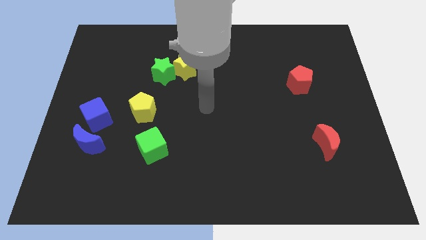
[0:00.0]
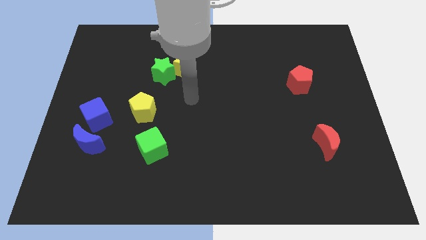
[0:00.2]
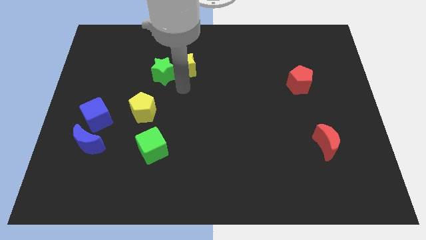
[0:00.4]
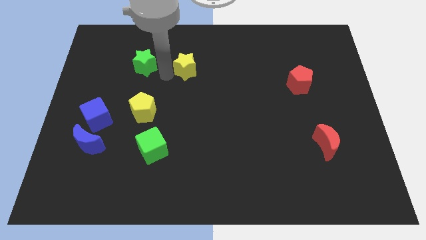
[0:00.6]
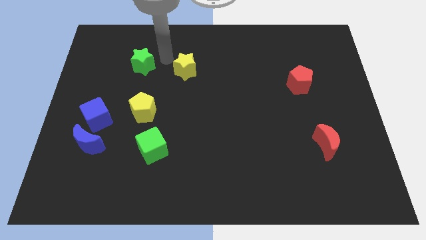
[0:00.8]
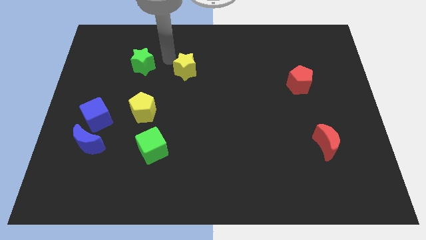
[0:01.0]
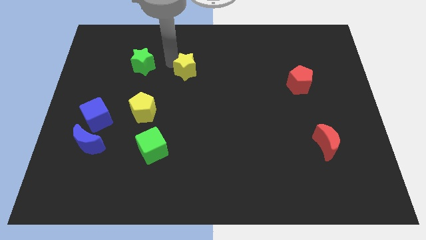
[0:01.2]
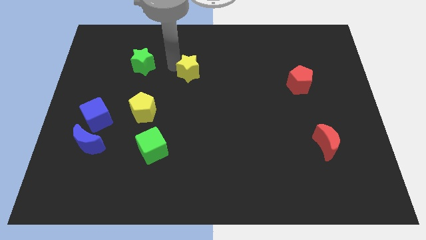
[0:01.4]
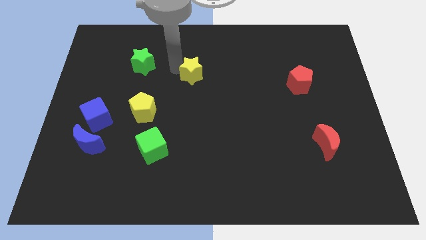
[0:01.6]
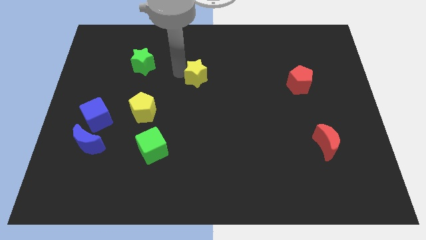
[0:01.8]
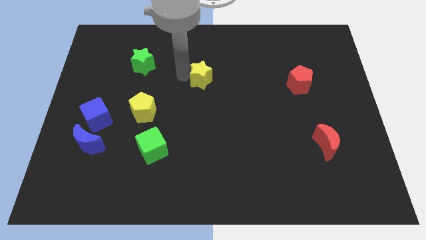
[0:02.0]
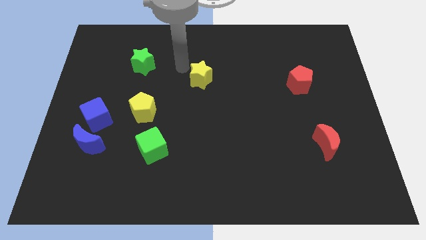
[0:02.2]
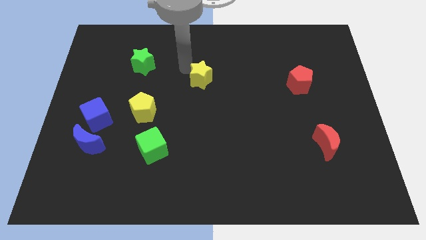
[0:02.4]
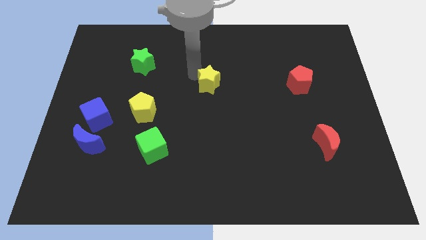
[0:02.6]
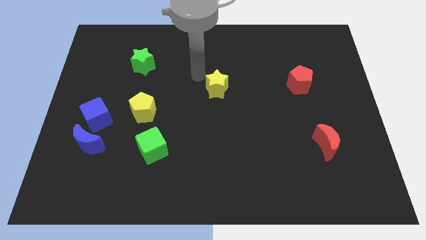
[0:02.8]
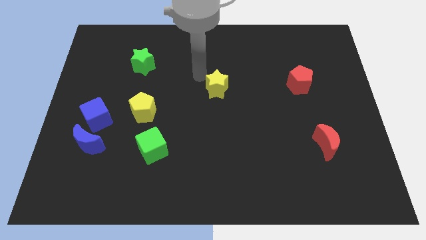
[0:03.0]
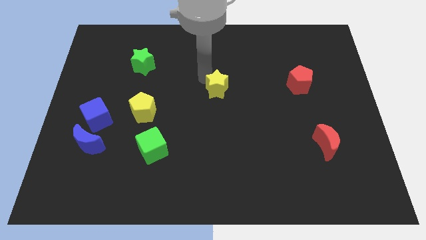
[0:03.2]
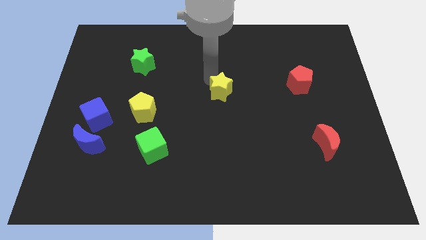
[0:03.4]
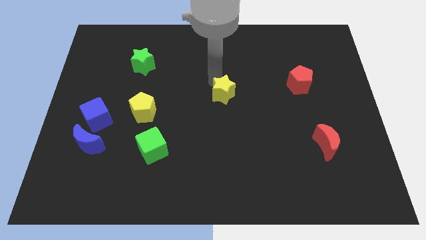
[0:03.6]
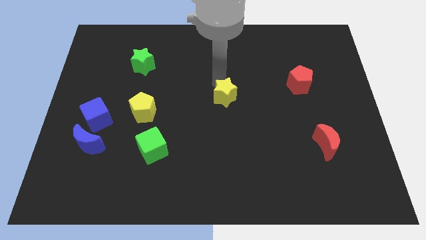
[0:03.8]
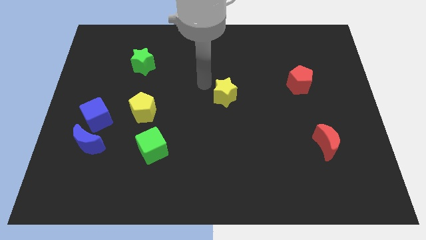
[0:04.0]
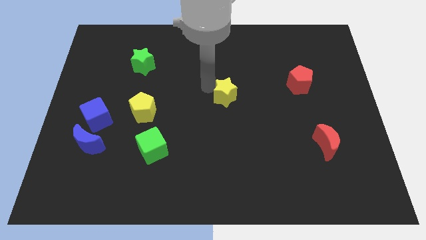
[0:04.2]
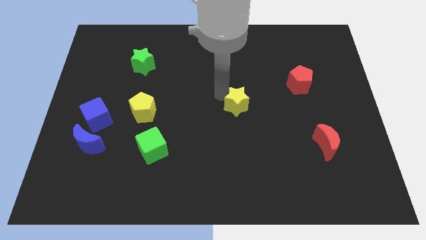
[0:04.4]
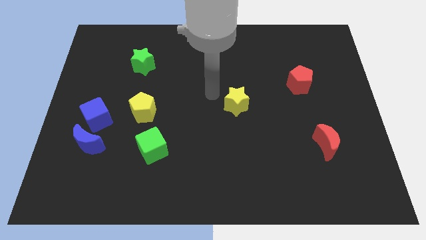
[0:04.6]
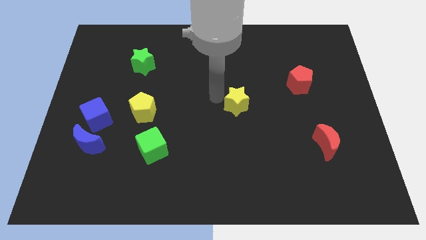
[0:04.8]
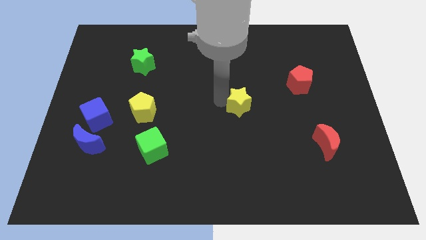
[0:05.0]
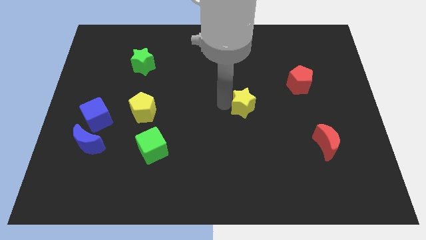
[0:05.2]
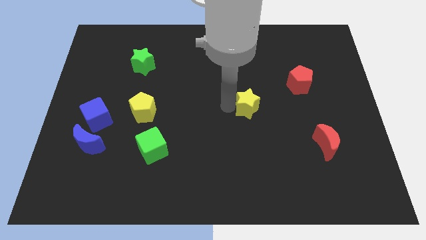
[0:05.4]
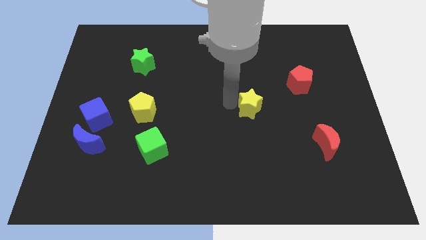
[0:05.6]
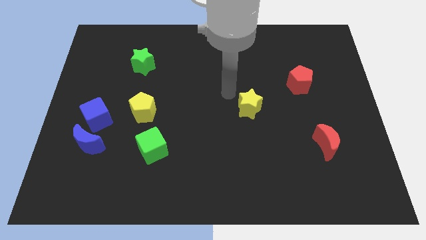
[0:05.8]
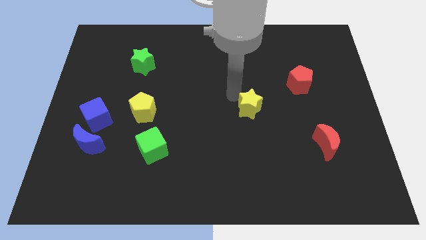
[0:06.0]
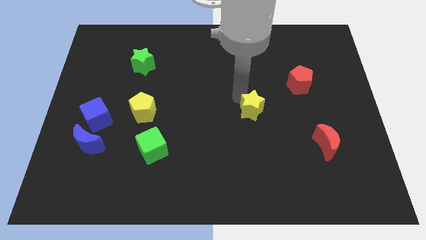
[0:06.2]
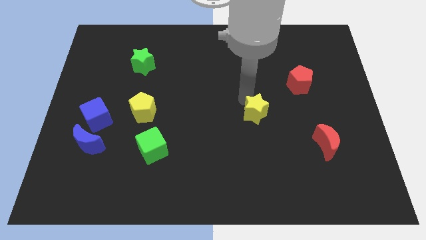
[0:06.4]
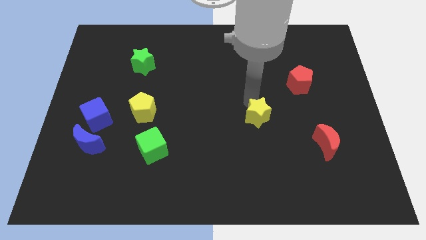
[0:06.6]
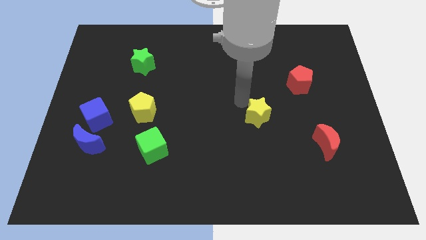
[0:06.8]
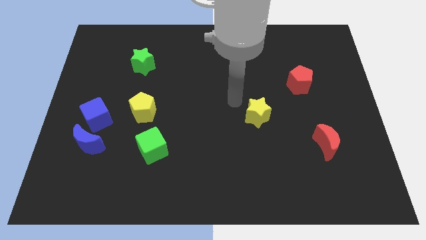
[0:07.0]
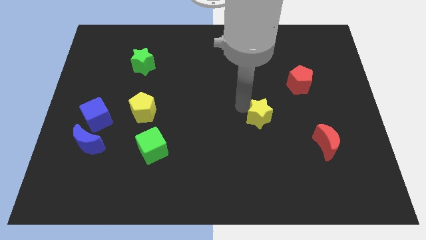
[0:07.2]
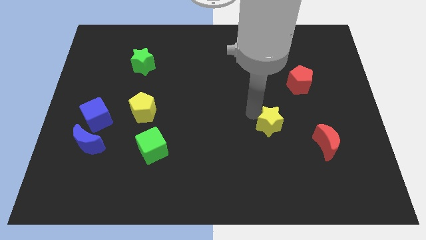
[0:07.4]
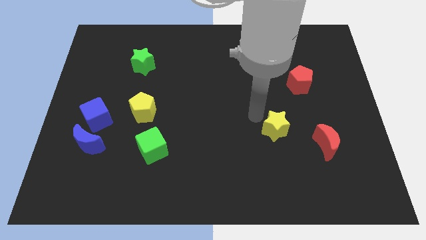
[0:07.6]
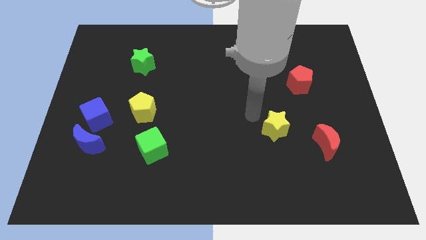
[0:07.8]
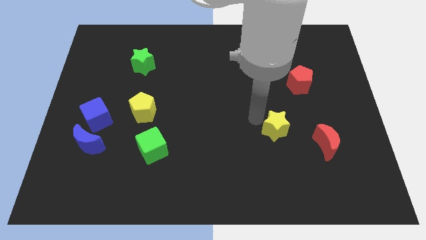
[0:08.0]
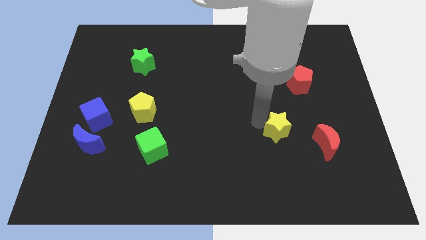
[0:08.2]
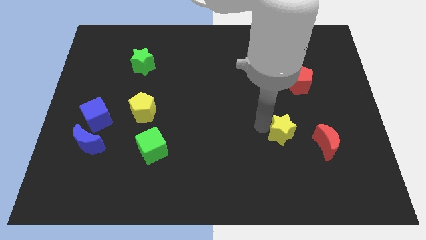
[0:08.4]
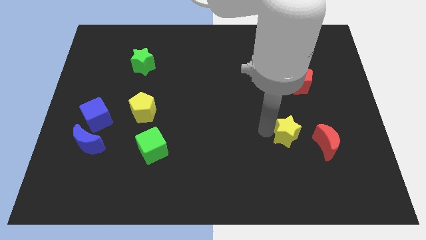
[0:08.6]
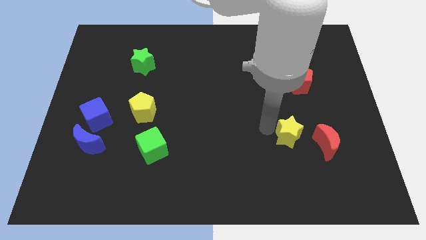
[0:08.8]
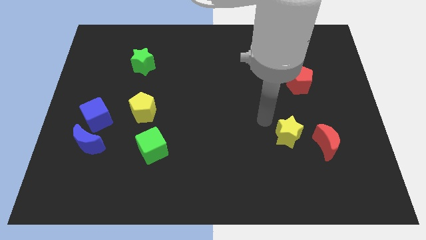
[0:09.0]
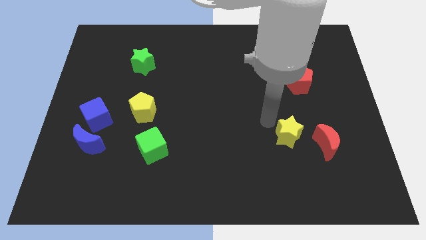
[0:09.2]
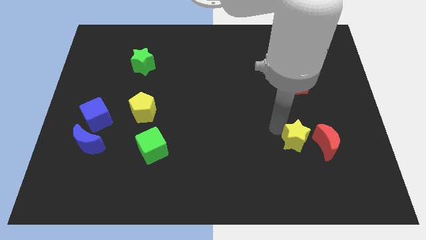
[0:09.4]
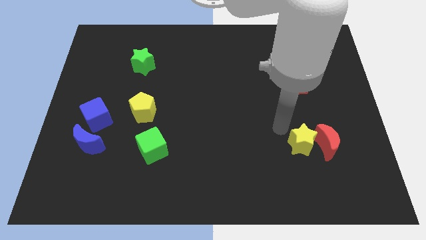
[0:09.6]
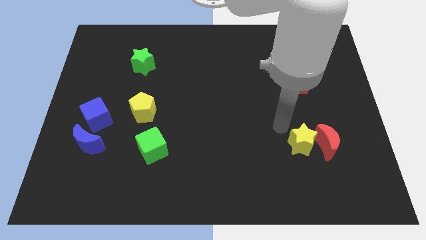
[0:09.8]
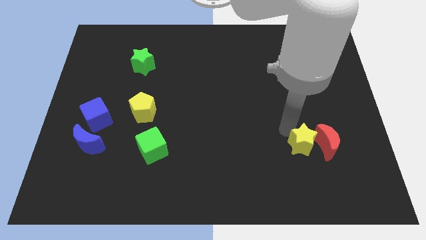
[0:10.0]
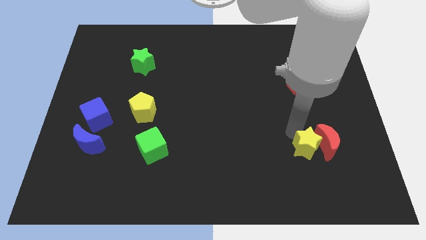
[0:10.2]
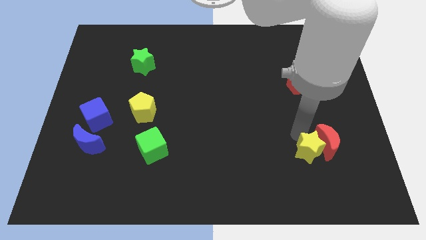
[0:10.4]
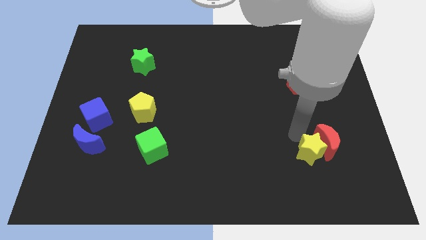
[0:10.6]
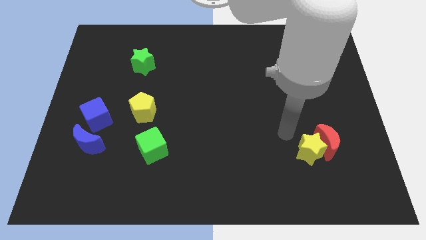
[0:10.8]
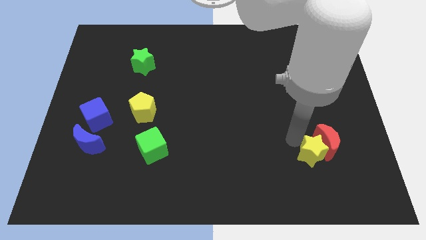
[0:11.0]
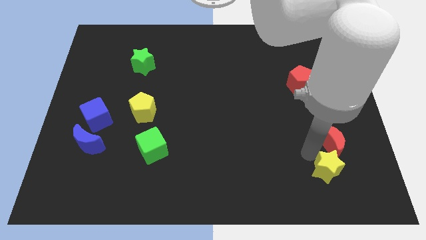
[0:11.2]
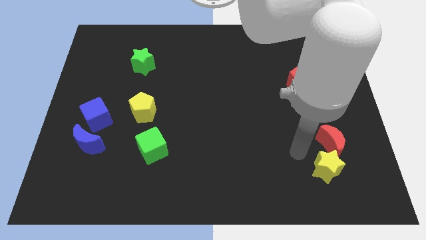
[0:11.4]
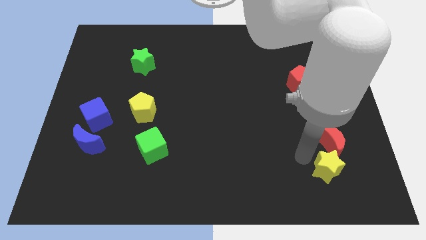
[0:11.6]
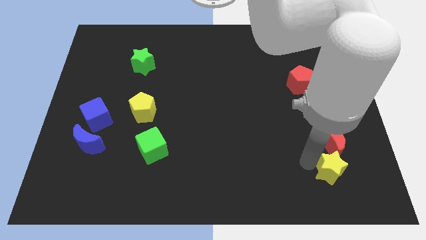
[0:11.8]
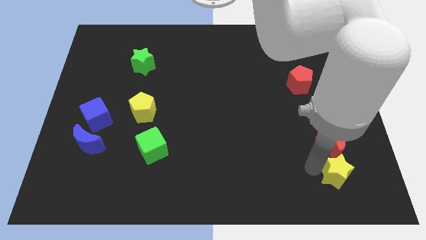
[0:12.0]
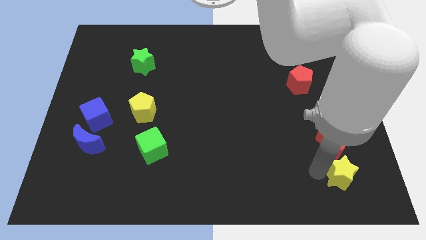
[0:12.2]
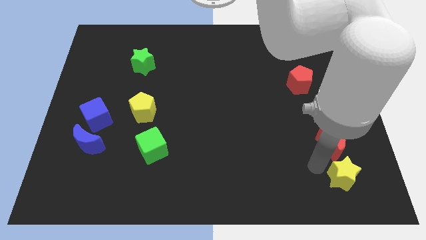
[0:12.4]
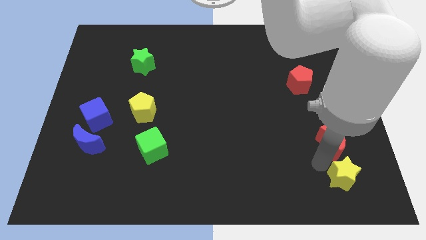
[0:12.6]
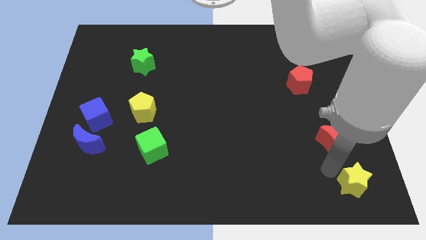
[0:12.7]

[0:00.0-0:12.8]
put the yellow star to the lower right corner
